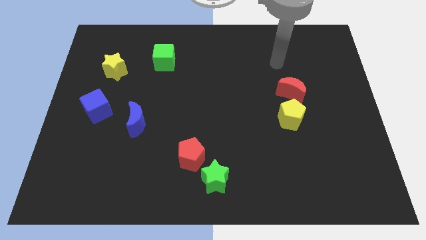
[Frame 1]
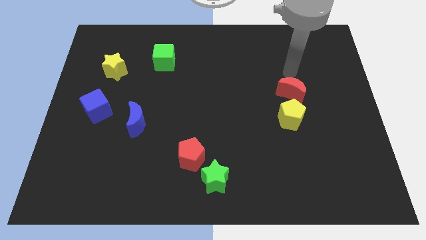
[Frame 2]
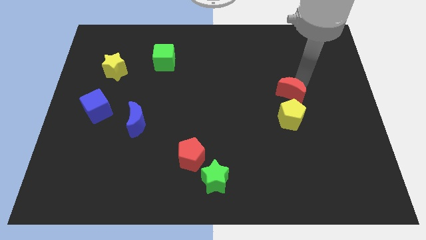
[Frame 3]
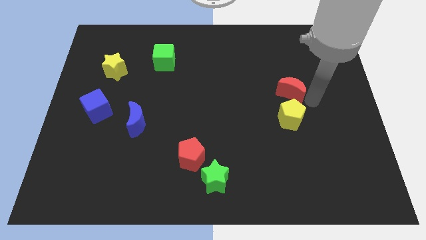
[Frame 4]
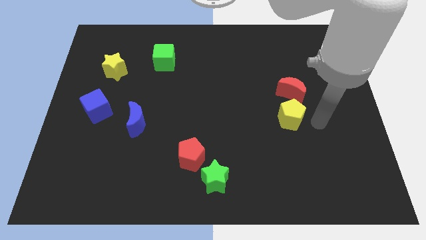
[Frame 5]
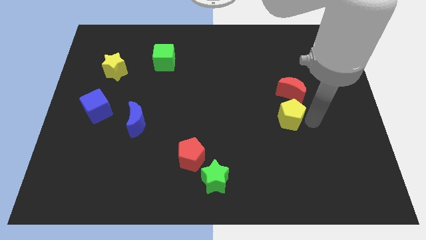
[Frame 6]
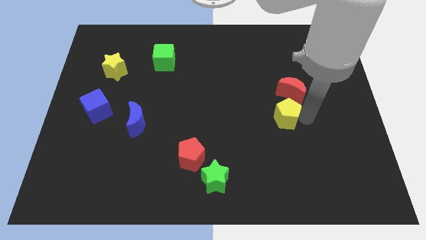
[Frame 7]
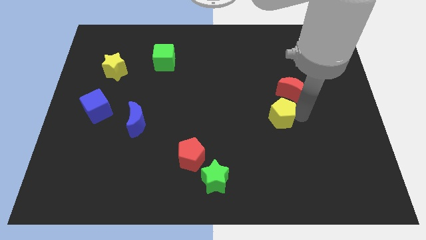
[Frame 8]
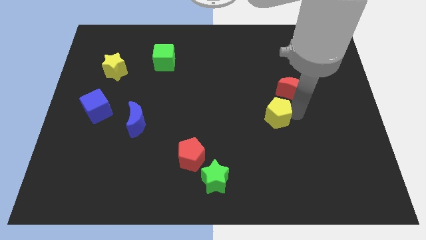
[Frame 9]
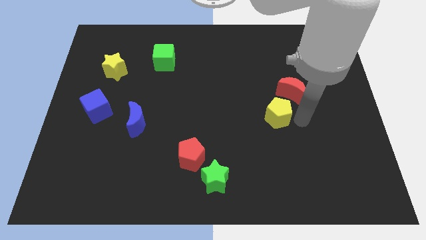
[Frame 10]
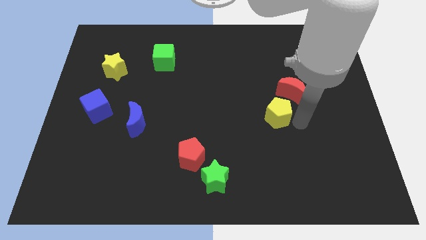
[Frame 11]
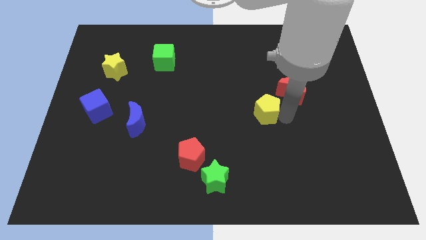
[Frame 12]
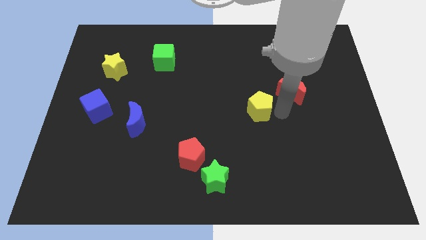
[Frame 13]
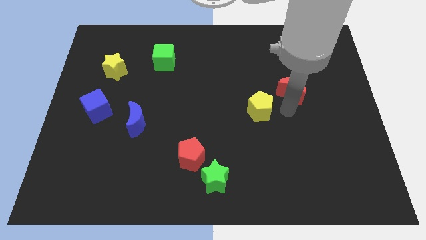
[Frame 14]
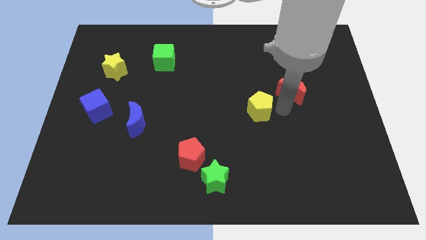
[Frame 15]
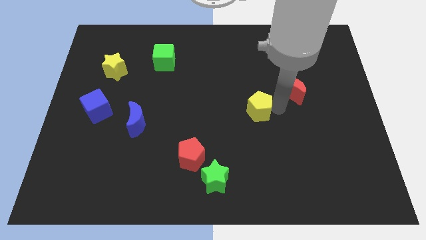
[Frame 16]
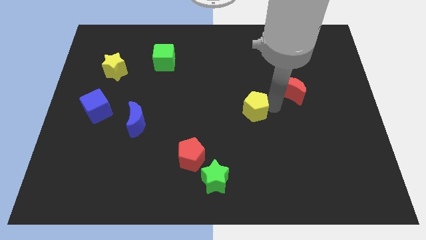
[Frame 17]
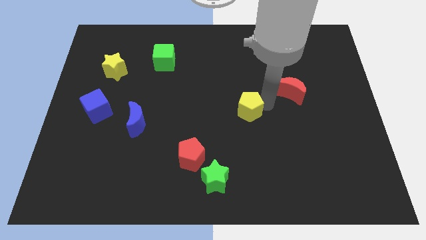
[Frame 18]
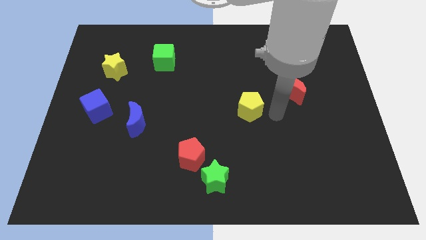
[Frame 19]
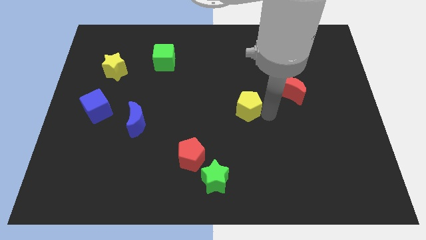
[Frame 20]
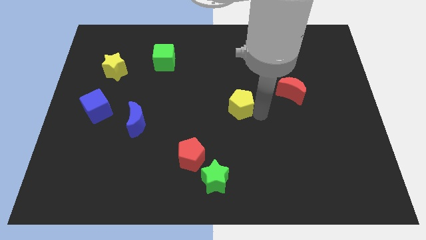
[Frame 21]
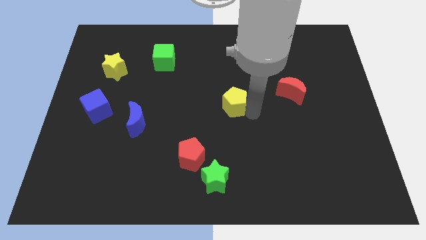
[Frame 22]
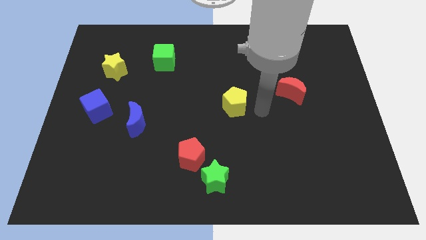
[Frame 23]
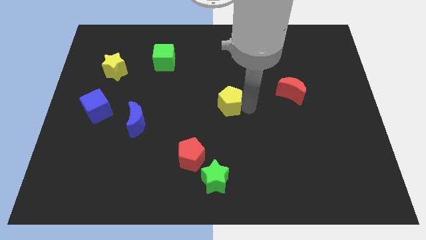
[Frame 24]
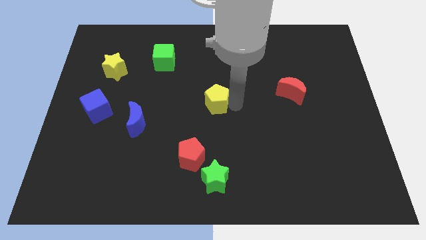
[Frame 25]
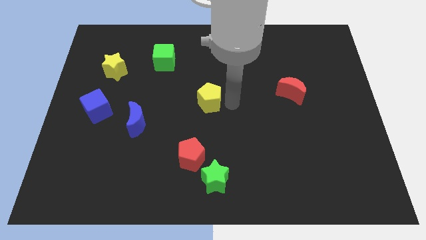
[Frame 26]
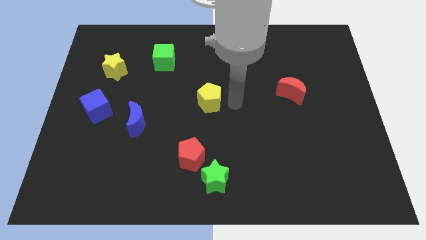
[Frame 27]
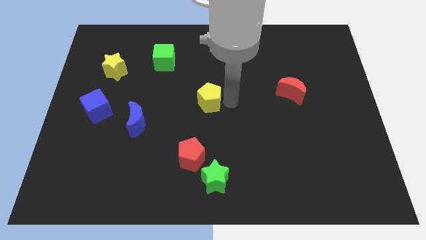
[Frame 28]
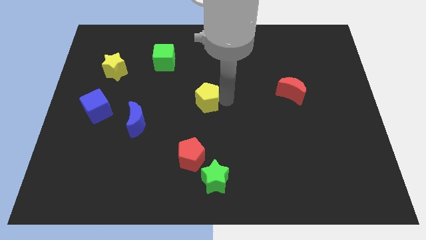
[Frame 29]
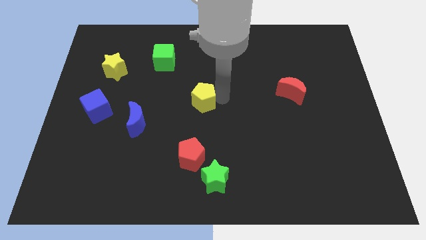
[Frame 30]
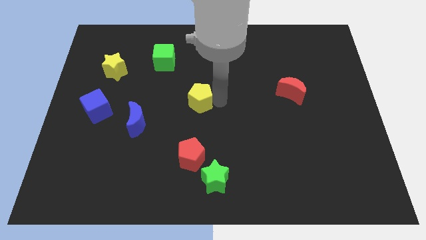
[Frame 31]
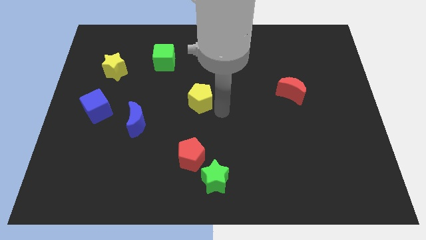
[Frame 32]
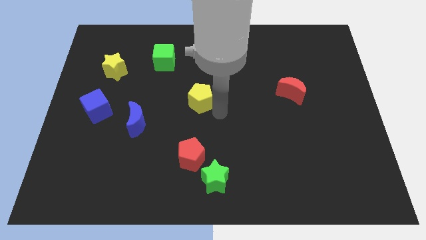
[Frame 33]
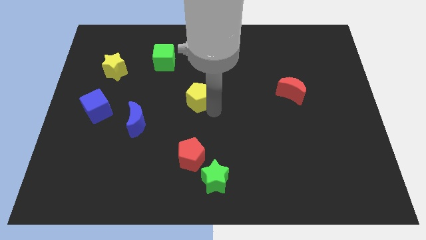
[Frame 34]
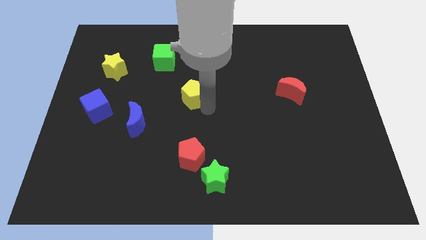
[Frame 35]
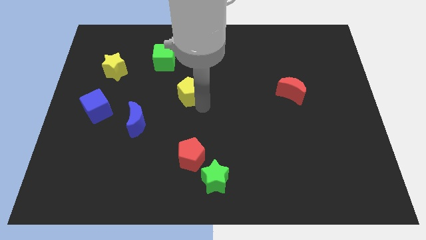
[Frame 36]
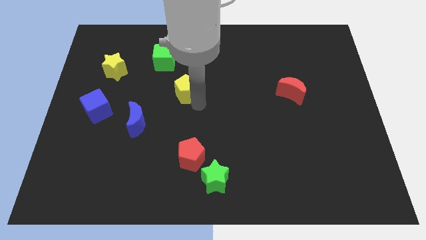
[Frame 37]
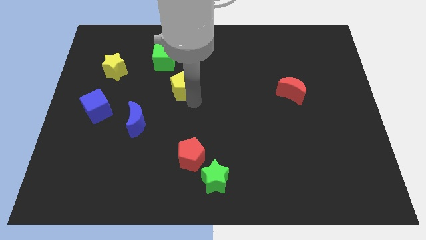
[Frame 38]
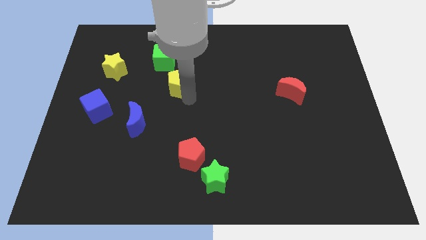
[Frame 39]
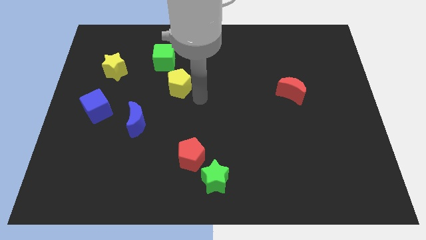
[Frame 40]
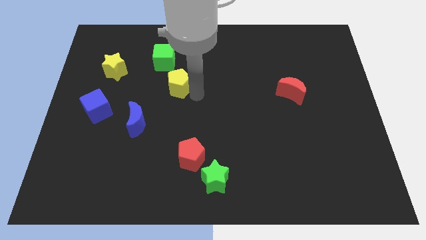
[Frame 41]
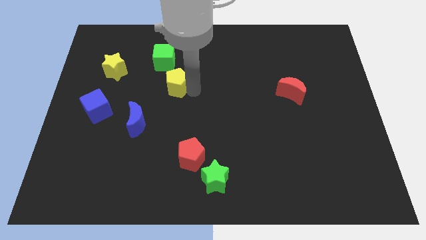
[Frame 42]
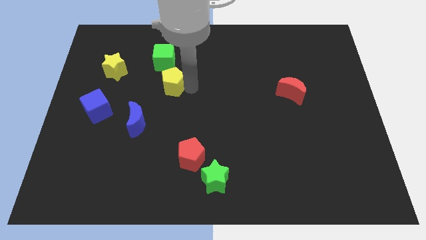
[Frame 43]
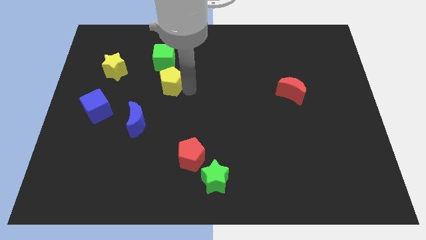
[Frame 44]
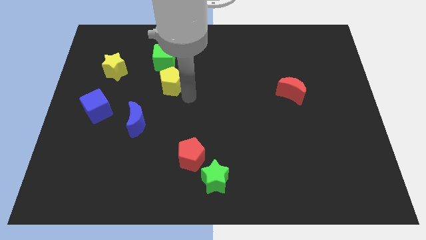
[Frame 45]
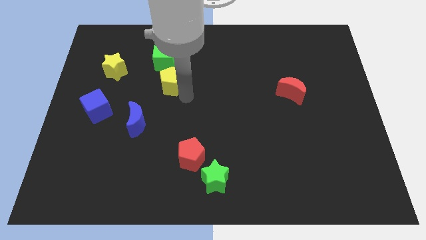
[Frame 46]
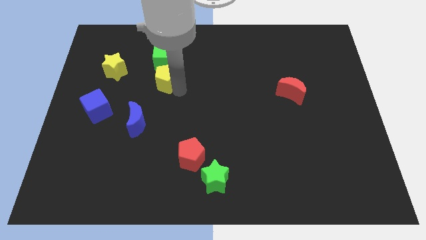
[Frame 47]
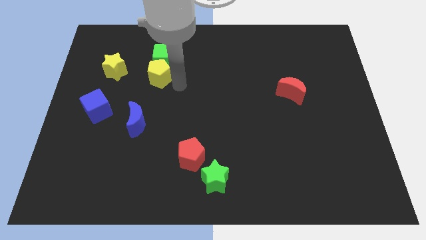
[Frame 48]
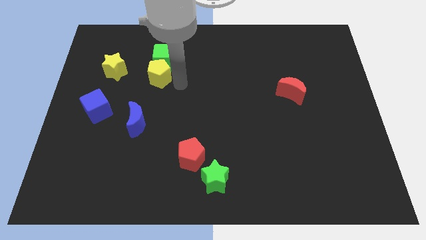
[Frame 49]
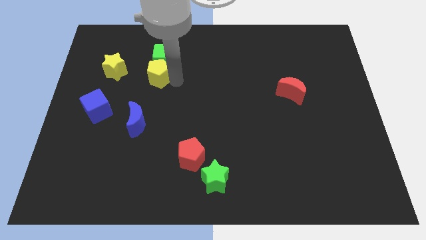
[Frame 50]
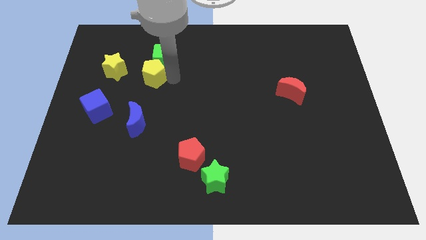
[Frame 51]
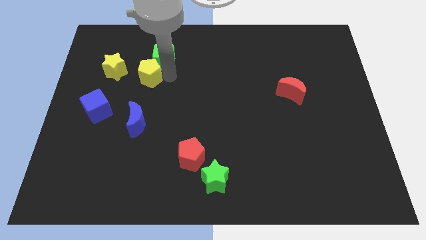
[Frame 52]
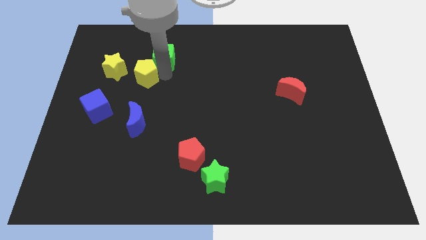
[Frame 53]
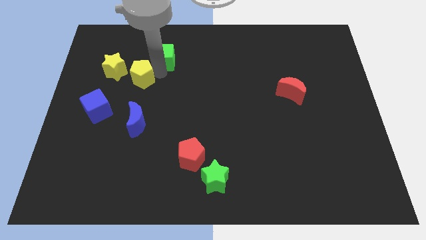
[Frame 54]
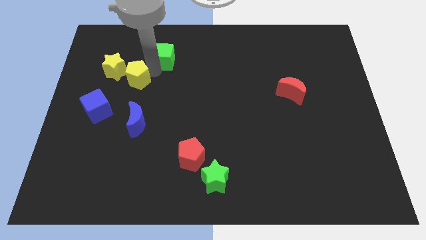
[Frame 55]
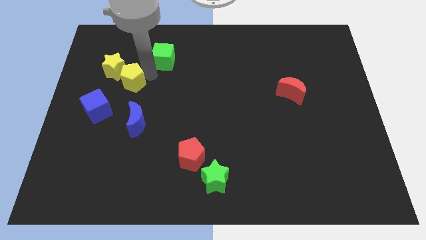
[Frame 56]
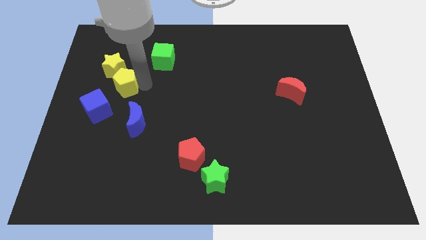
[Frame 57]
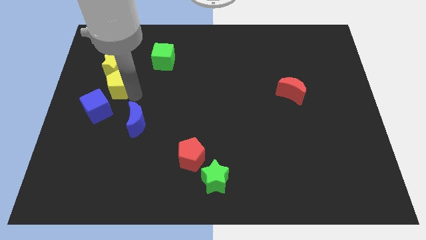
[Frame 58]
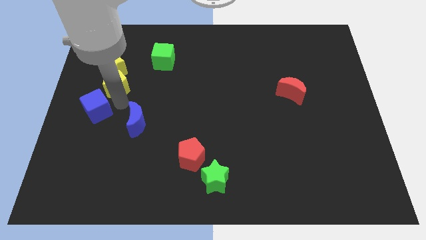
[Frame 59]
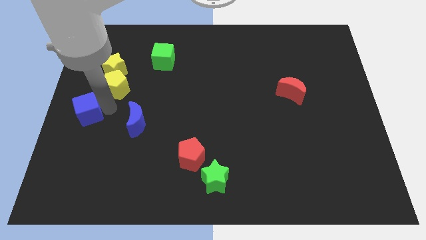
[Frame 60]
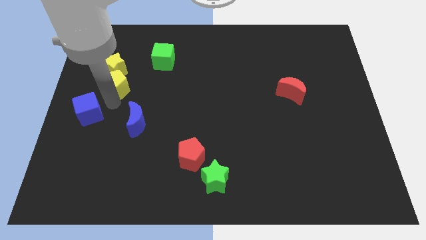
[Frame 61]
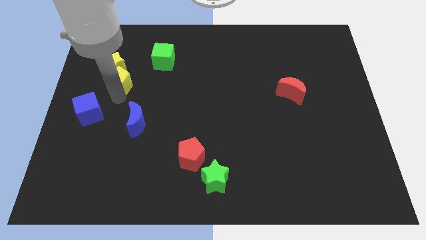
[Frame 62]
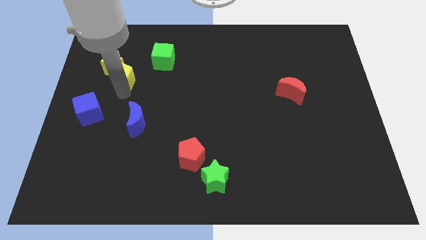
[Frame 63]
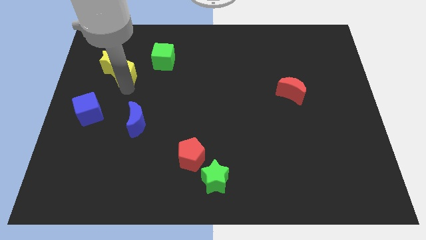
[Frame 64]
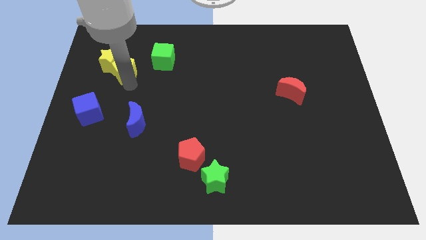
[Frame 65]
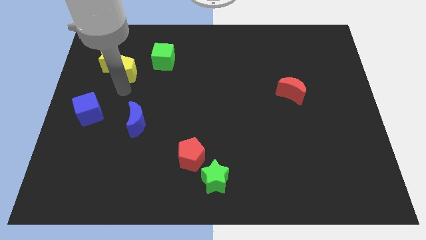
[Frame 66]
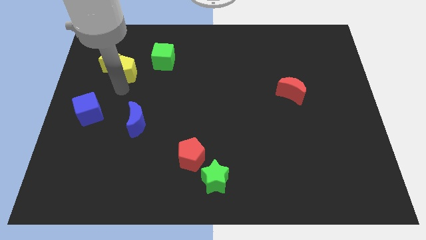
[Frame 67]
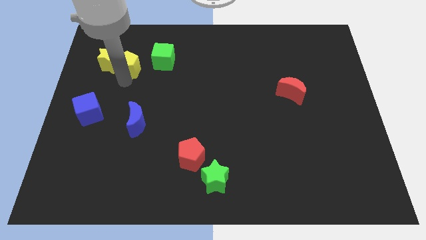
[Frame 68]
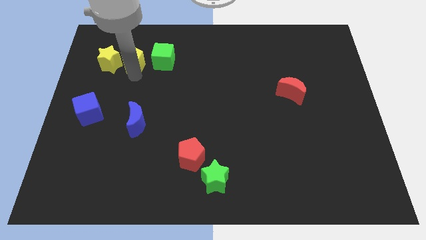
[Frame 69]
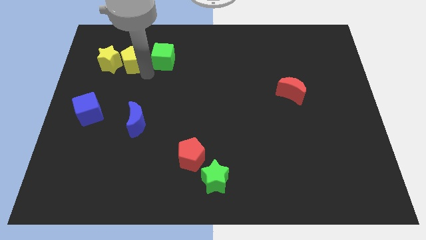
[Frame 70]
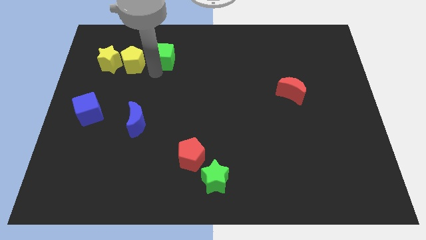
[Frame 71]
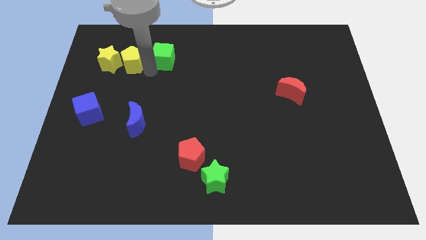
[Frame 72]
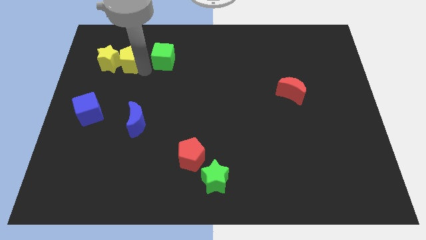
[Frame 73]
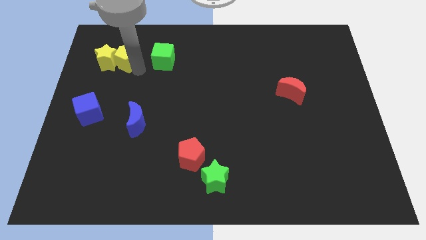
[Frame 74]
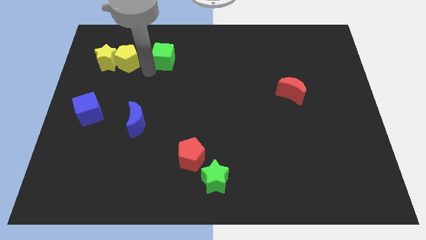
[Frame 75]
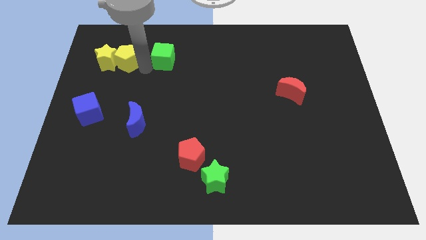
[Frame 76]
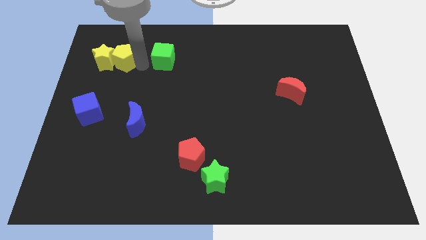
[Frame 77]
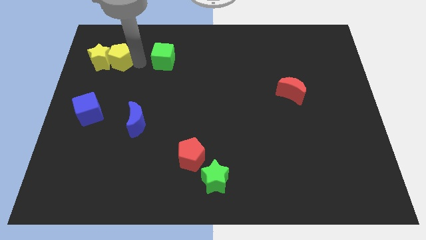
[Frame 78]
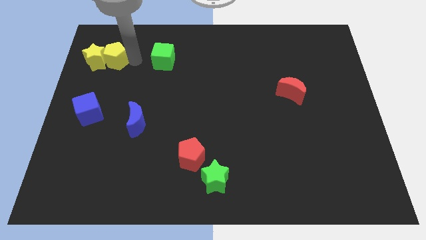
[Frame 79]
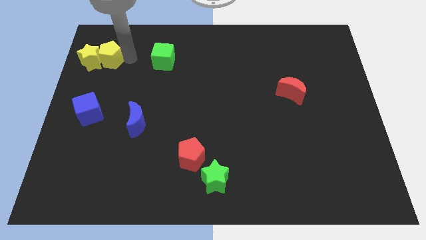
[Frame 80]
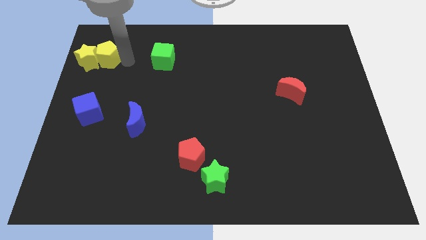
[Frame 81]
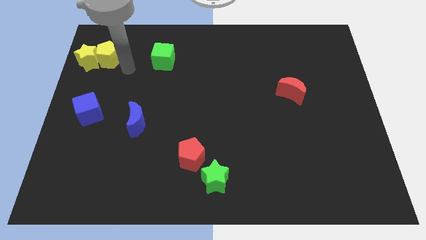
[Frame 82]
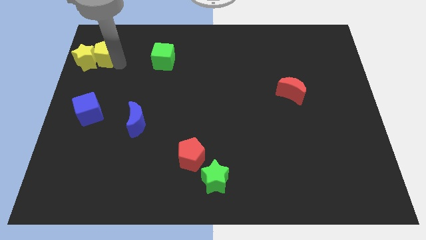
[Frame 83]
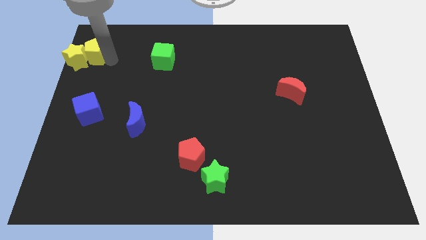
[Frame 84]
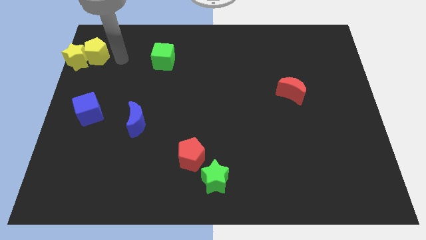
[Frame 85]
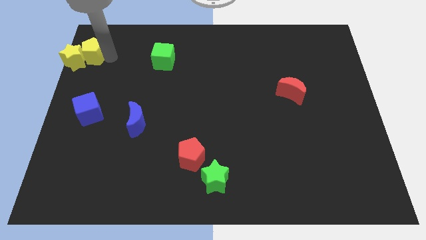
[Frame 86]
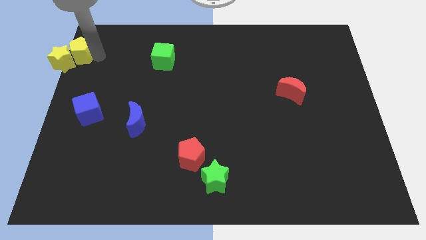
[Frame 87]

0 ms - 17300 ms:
put the yellow pentagon to the top left of the board
